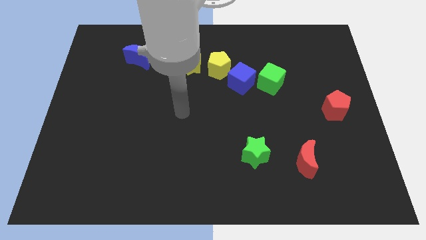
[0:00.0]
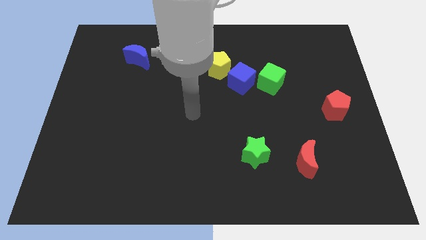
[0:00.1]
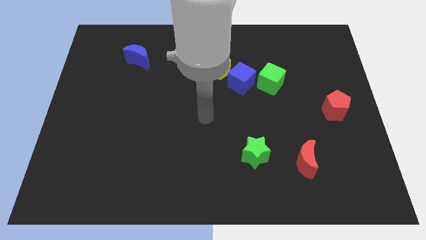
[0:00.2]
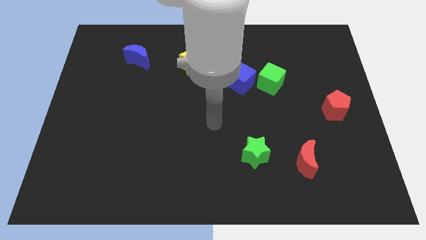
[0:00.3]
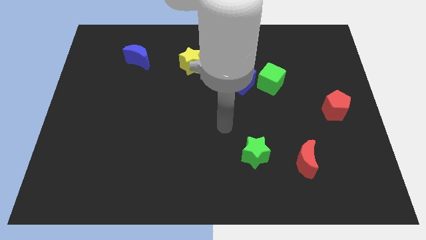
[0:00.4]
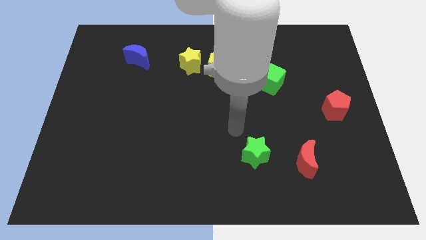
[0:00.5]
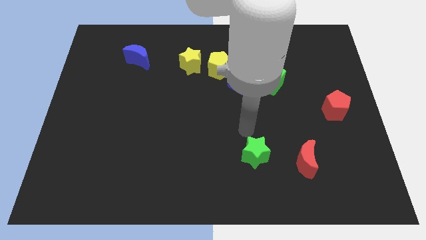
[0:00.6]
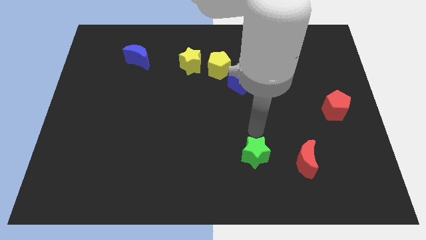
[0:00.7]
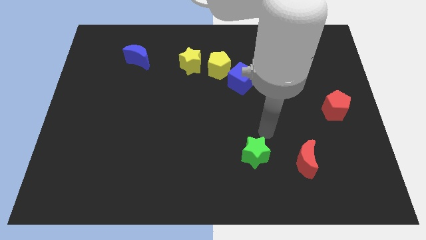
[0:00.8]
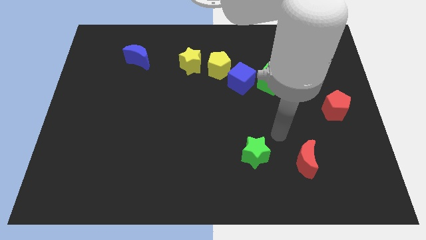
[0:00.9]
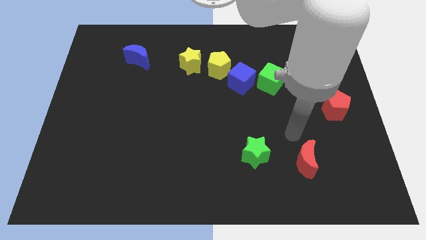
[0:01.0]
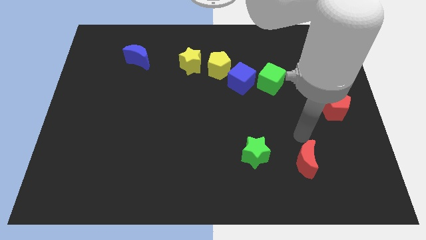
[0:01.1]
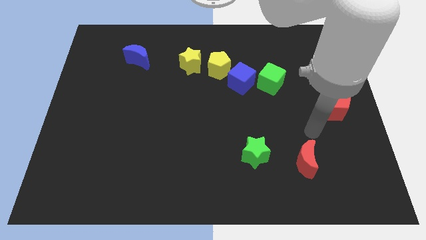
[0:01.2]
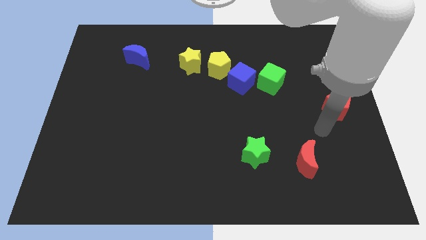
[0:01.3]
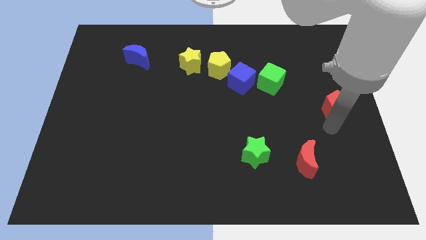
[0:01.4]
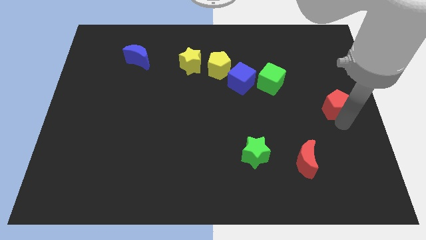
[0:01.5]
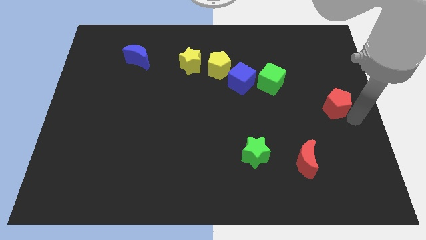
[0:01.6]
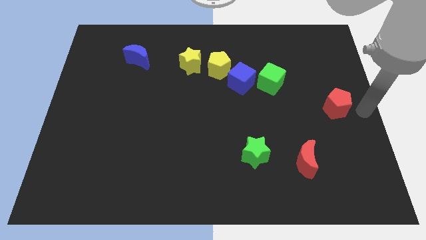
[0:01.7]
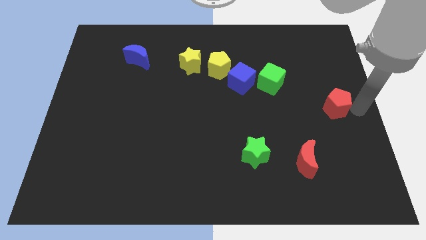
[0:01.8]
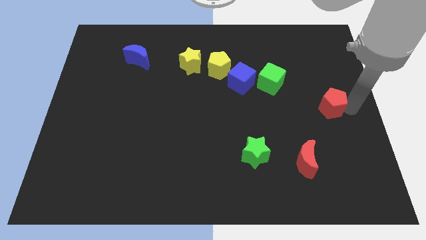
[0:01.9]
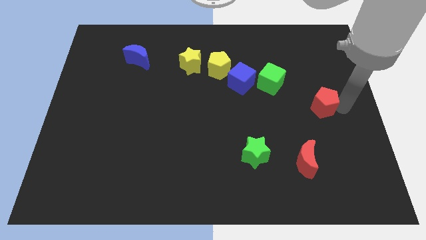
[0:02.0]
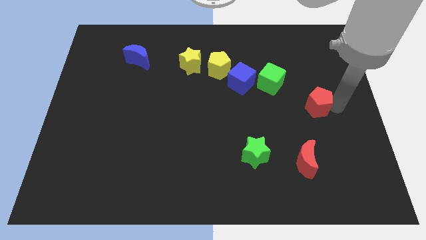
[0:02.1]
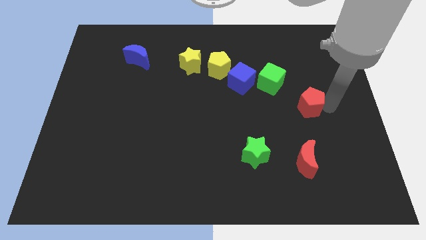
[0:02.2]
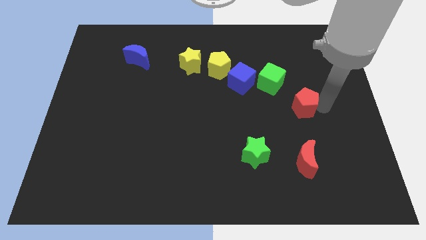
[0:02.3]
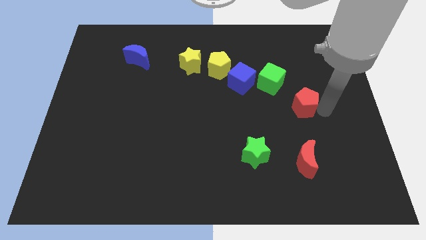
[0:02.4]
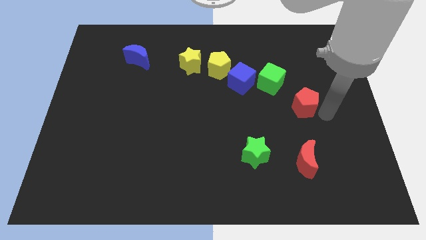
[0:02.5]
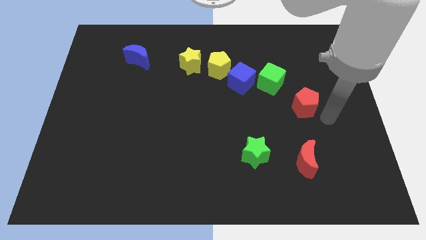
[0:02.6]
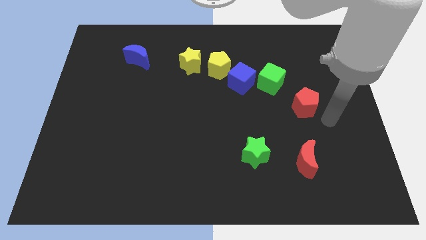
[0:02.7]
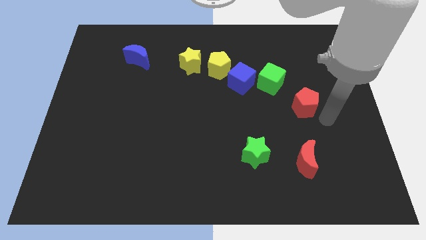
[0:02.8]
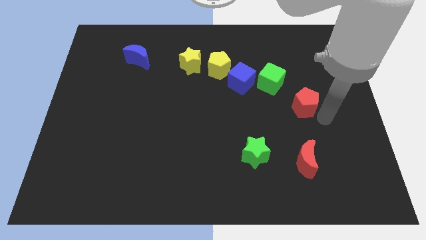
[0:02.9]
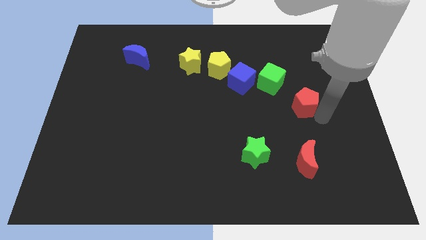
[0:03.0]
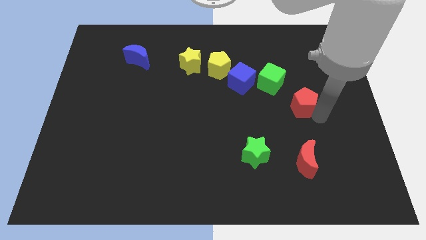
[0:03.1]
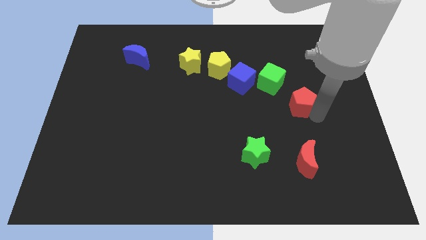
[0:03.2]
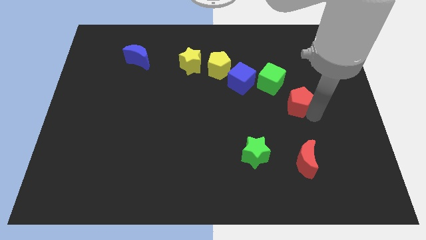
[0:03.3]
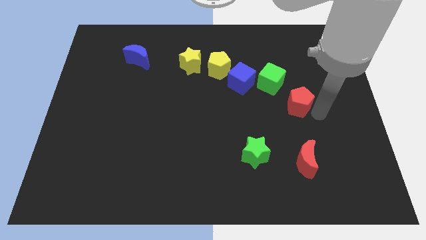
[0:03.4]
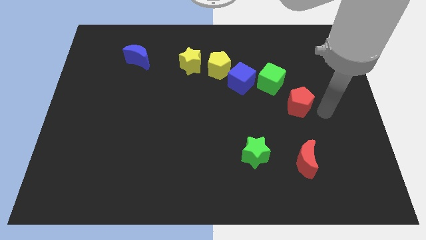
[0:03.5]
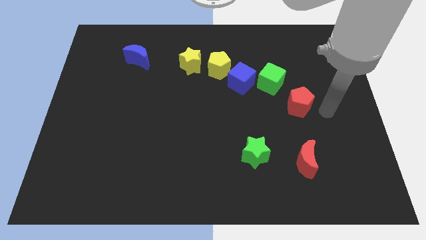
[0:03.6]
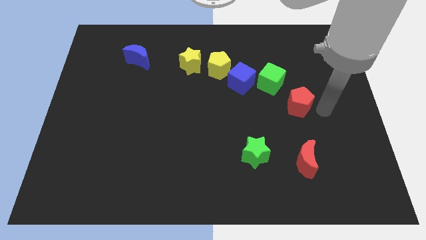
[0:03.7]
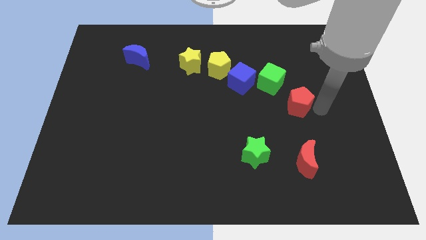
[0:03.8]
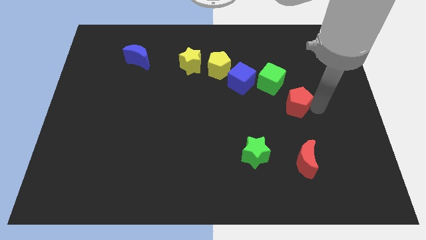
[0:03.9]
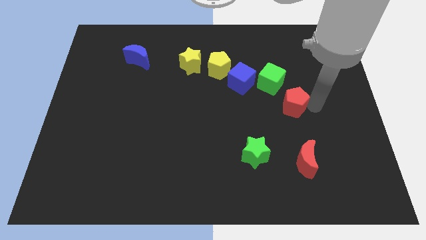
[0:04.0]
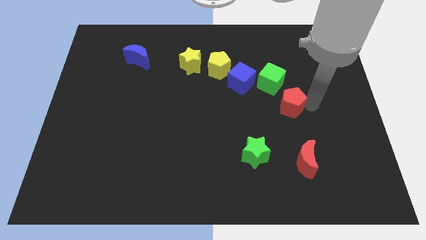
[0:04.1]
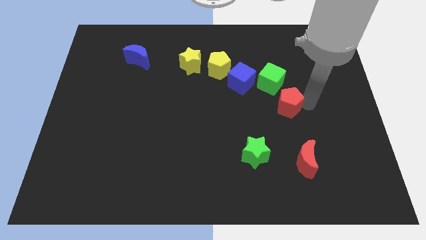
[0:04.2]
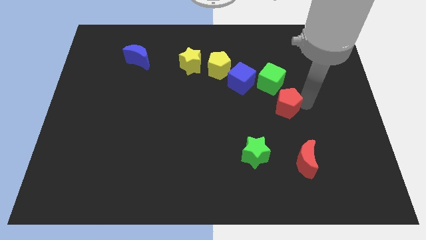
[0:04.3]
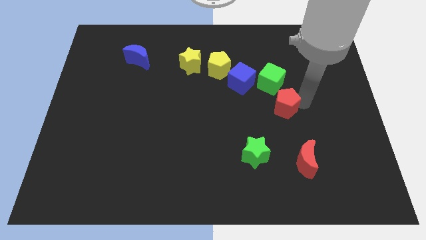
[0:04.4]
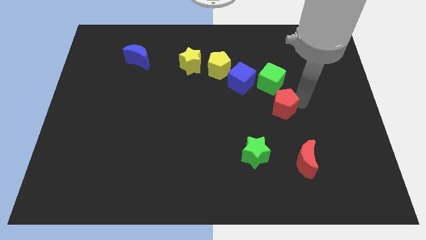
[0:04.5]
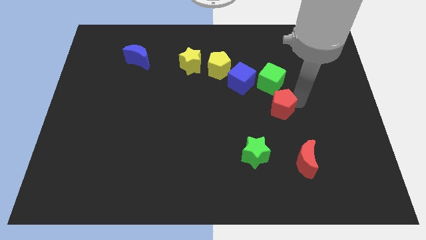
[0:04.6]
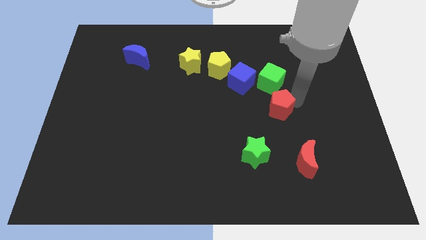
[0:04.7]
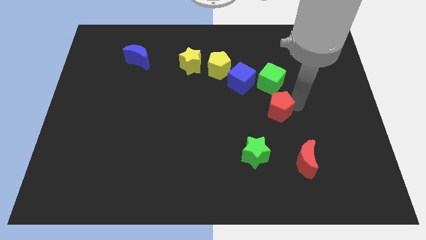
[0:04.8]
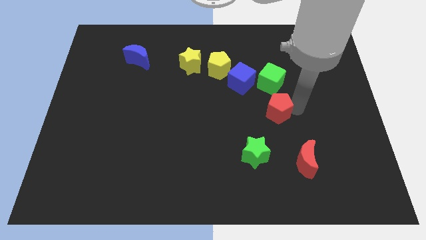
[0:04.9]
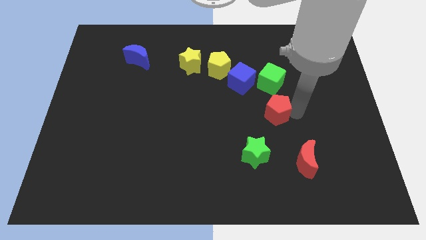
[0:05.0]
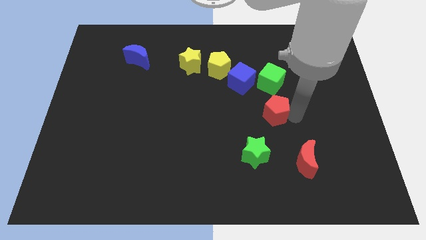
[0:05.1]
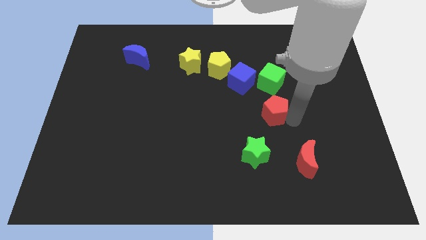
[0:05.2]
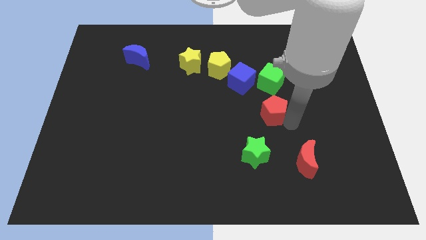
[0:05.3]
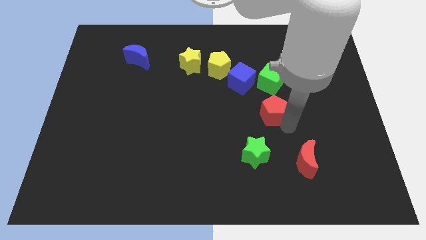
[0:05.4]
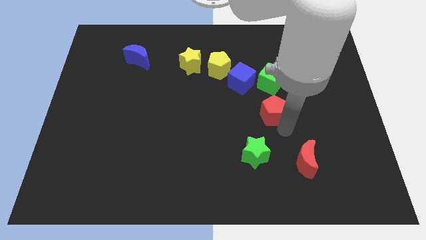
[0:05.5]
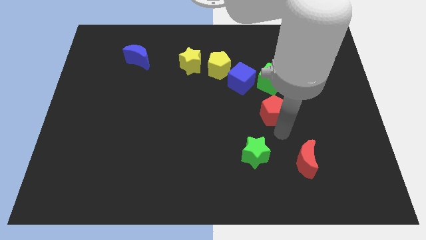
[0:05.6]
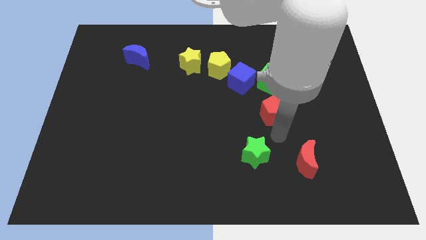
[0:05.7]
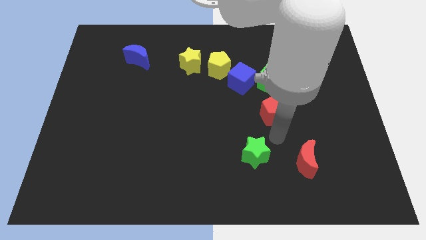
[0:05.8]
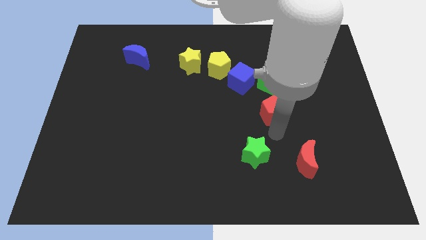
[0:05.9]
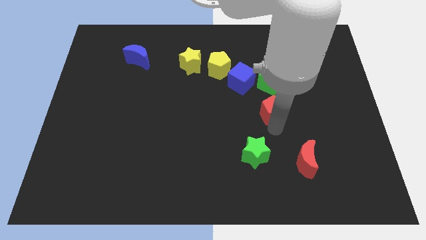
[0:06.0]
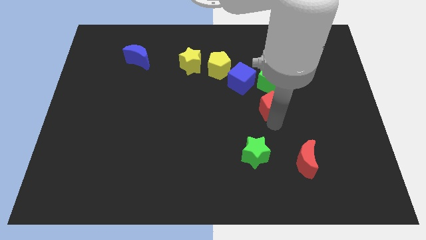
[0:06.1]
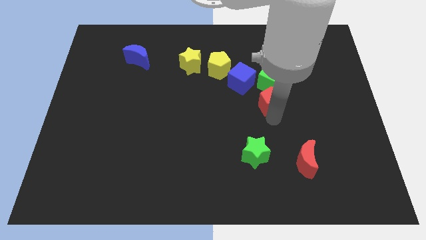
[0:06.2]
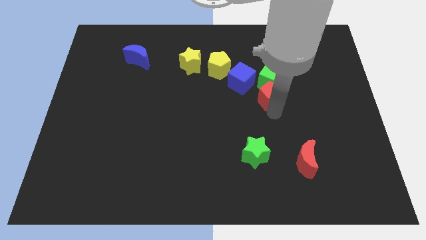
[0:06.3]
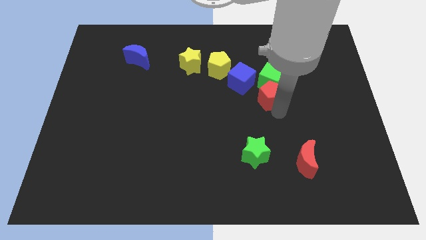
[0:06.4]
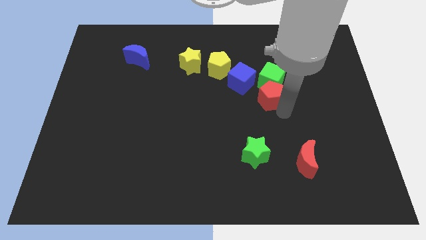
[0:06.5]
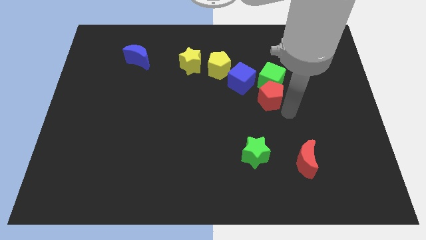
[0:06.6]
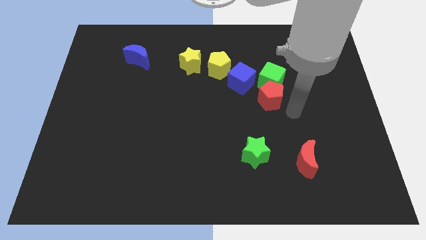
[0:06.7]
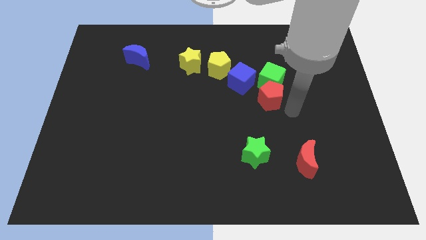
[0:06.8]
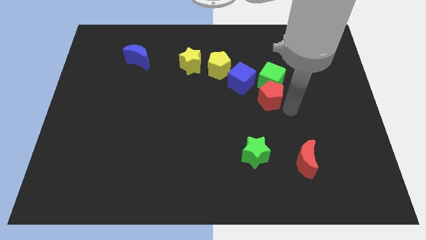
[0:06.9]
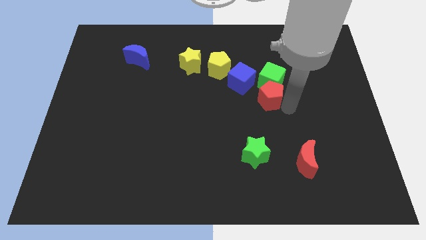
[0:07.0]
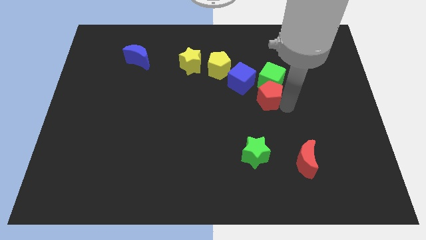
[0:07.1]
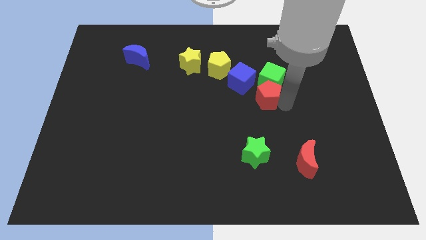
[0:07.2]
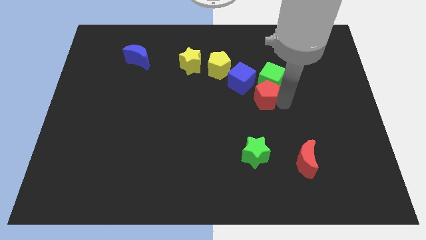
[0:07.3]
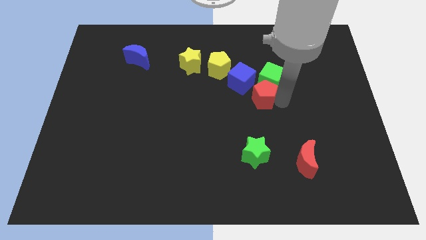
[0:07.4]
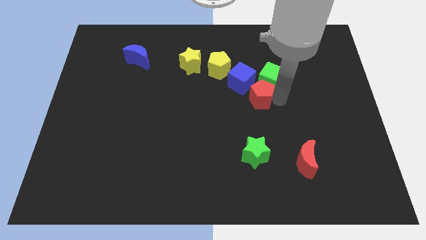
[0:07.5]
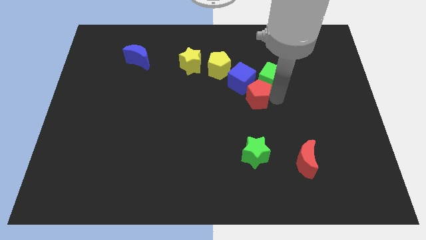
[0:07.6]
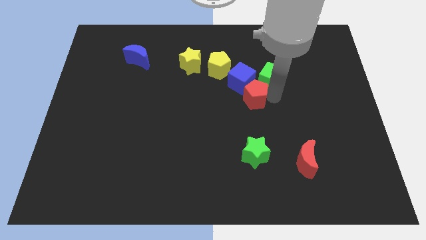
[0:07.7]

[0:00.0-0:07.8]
put the red pentagon next to the blue cube
